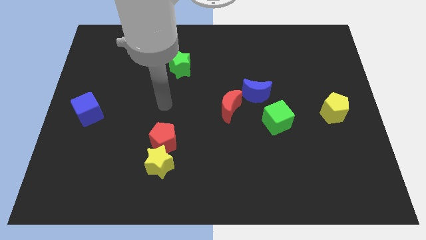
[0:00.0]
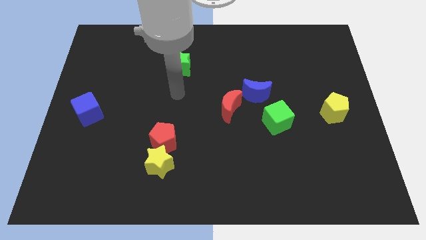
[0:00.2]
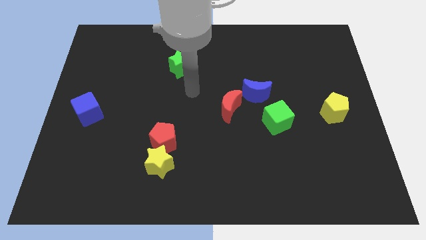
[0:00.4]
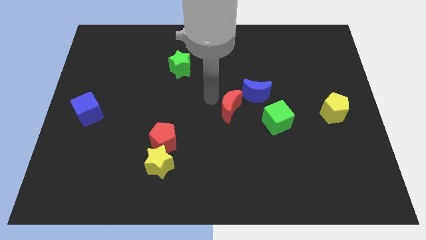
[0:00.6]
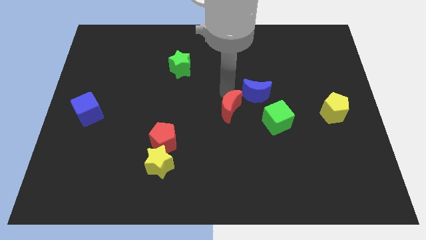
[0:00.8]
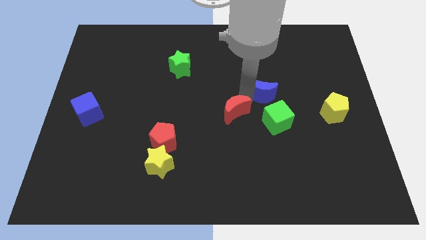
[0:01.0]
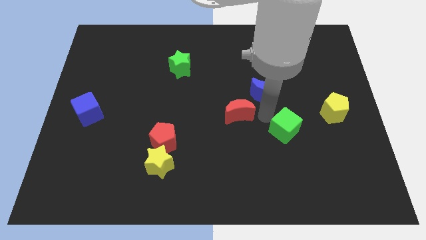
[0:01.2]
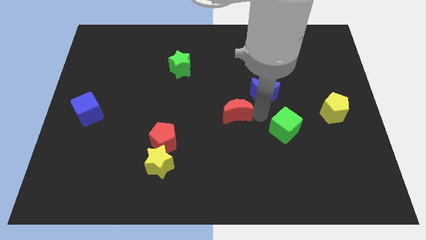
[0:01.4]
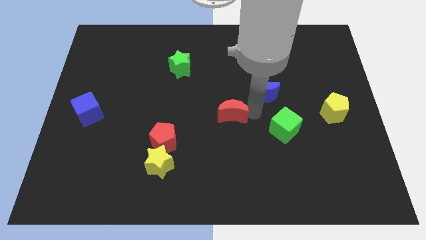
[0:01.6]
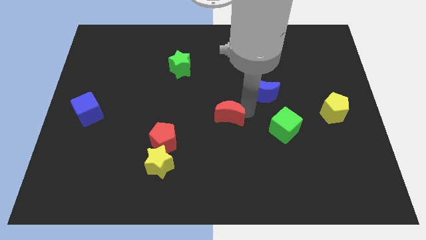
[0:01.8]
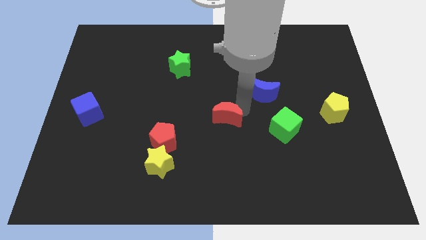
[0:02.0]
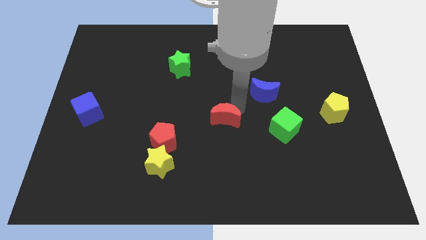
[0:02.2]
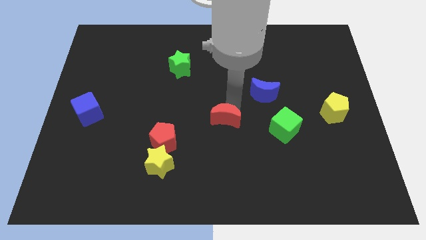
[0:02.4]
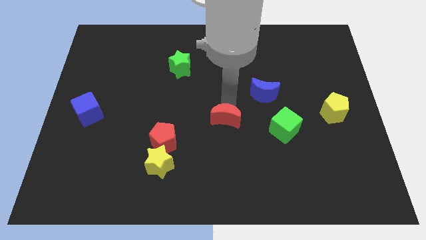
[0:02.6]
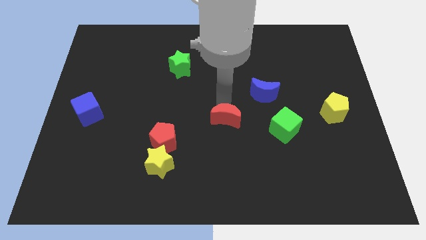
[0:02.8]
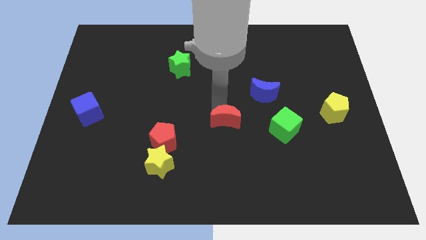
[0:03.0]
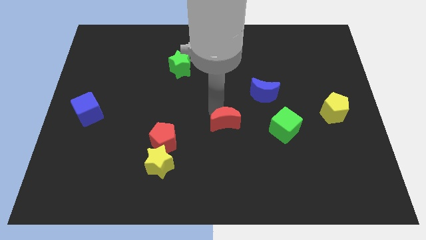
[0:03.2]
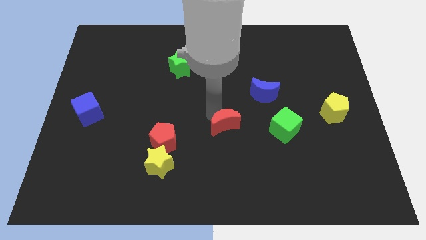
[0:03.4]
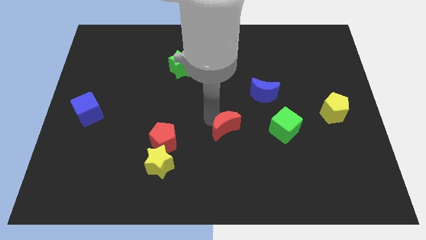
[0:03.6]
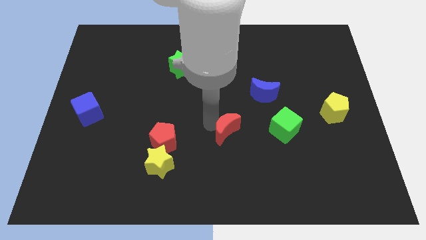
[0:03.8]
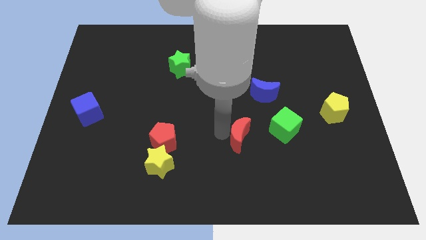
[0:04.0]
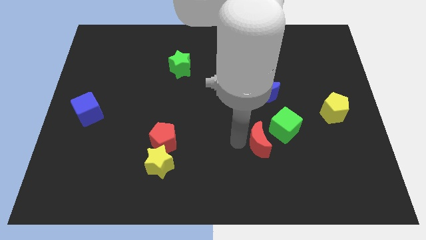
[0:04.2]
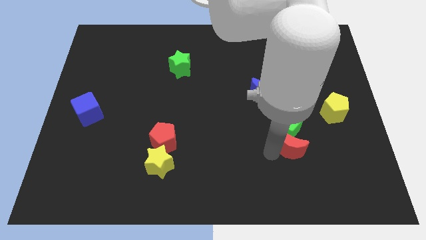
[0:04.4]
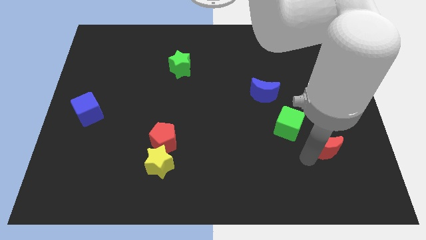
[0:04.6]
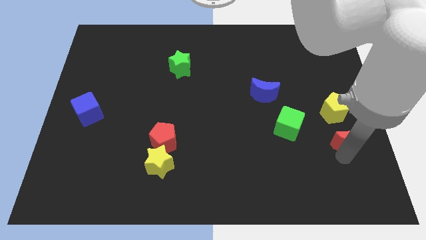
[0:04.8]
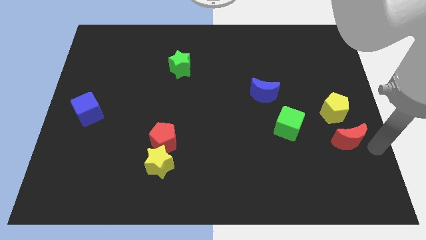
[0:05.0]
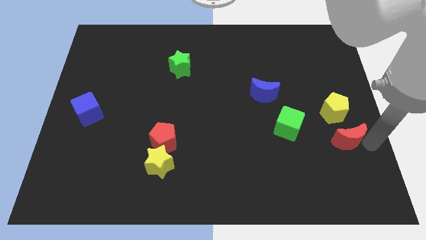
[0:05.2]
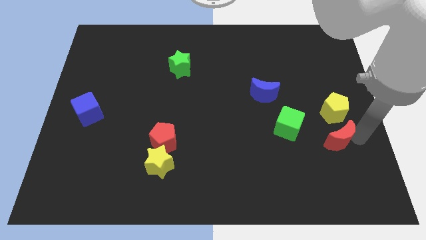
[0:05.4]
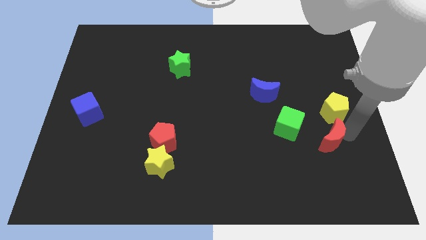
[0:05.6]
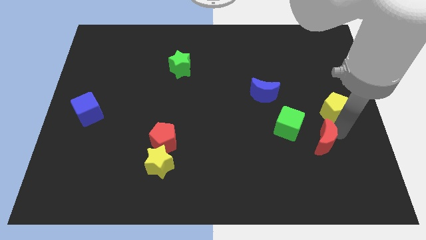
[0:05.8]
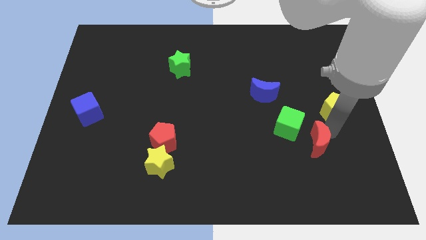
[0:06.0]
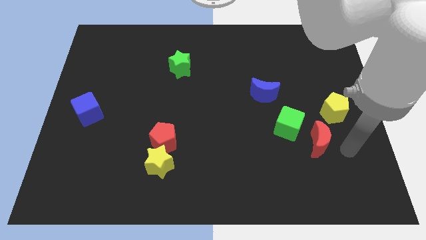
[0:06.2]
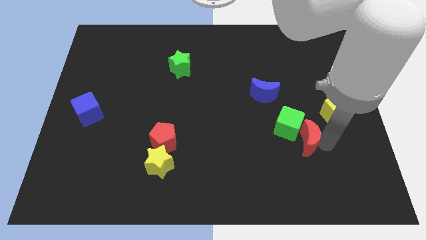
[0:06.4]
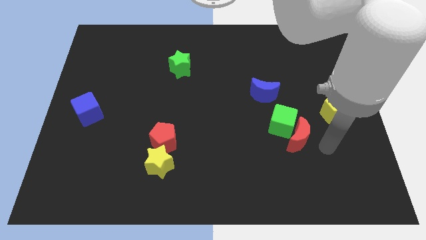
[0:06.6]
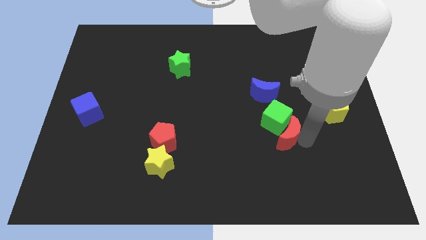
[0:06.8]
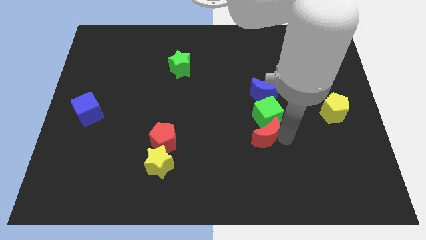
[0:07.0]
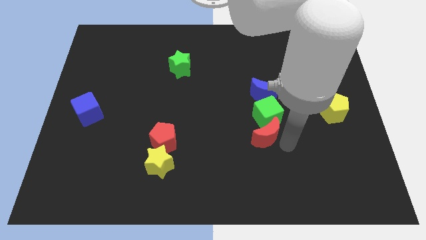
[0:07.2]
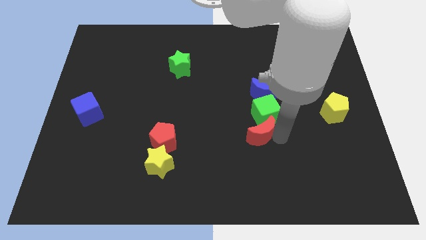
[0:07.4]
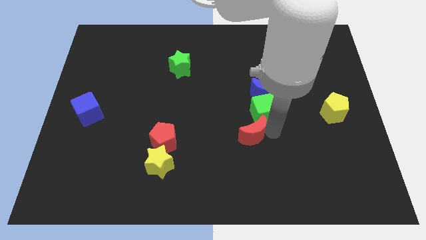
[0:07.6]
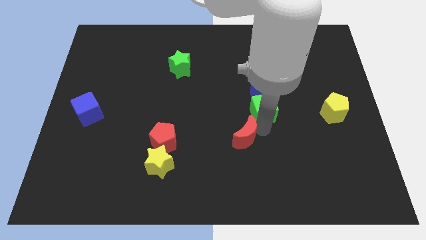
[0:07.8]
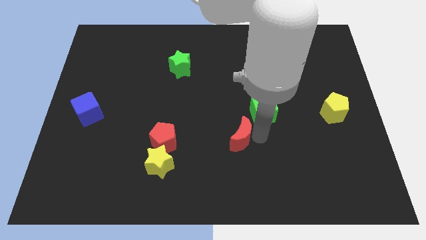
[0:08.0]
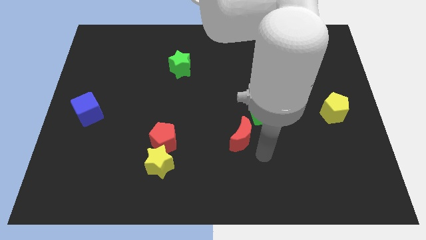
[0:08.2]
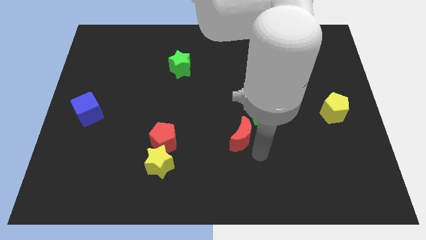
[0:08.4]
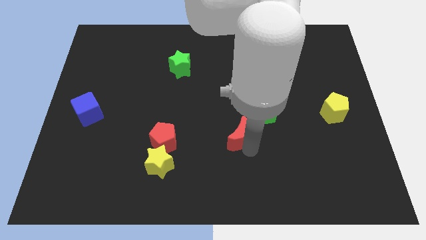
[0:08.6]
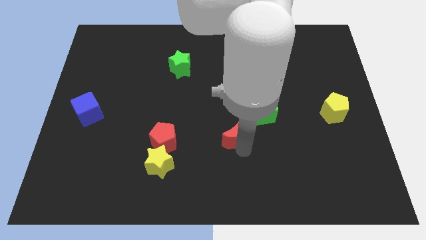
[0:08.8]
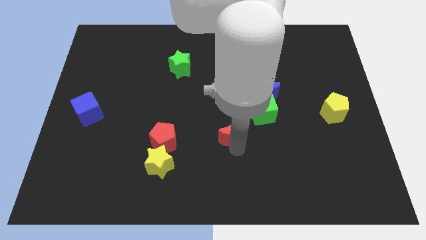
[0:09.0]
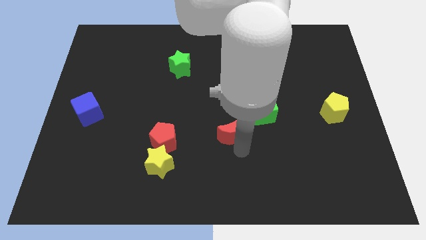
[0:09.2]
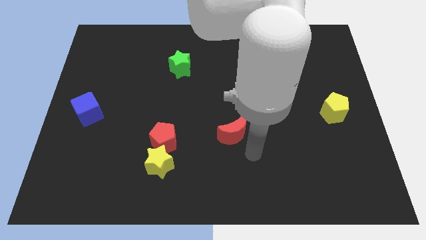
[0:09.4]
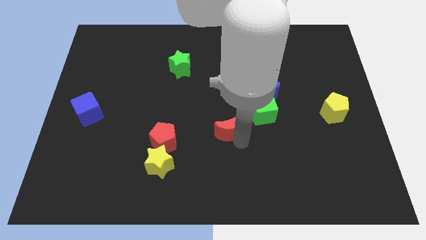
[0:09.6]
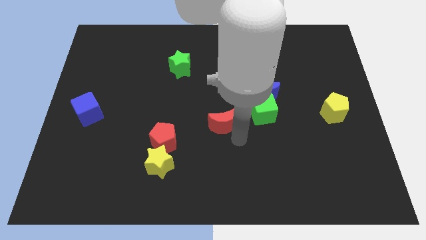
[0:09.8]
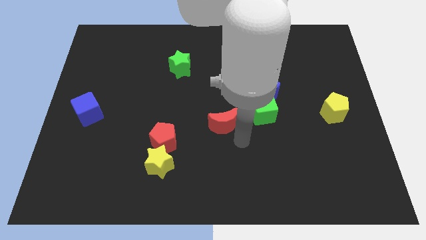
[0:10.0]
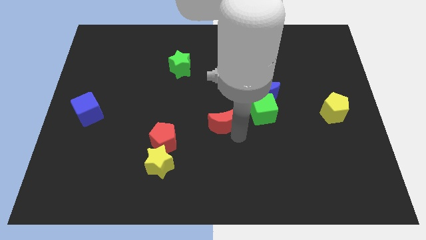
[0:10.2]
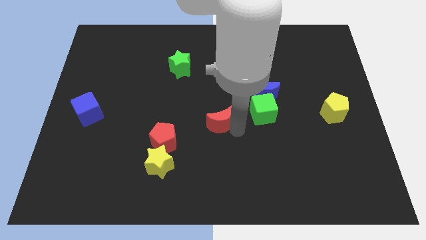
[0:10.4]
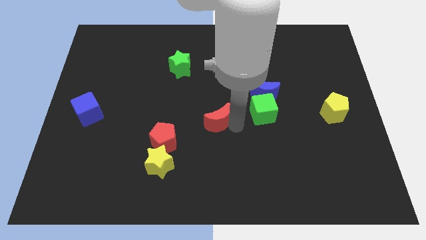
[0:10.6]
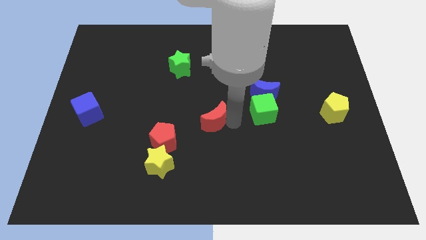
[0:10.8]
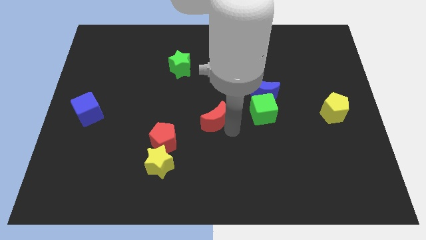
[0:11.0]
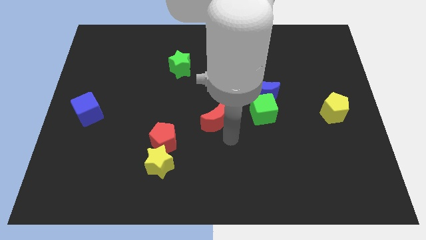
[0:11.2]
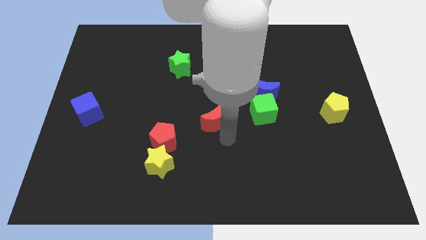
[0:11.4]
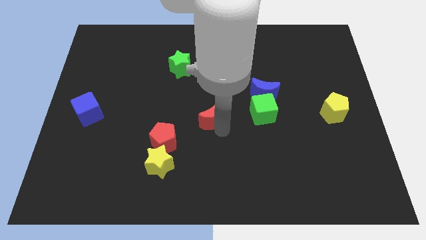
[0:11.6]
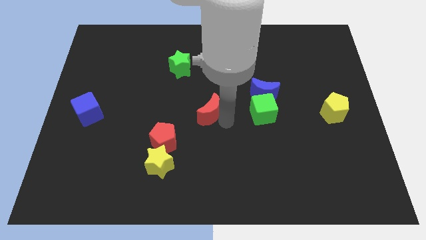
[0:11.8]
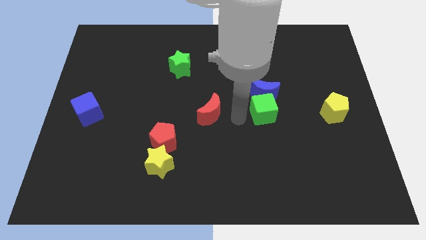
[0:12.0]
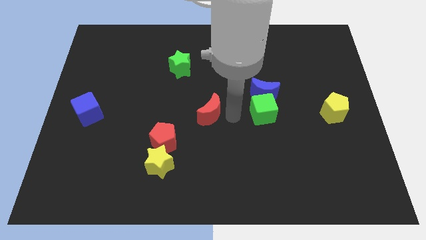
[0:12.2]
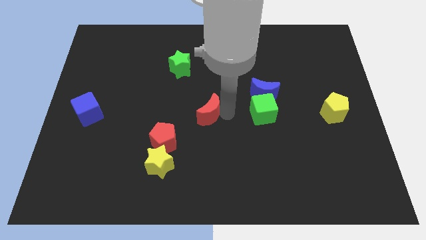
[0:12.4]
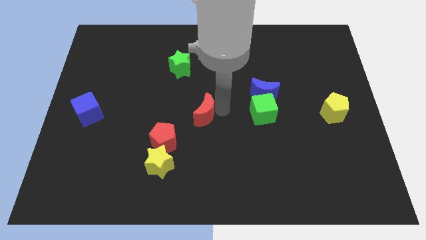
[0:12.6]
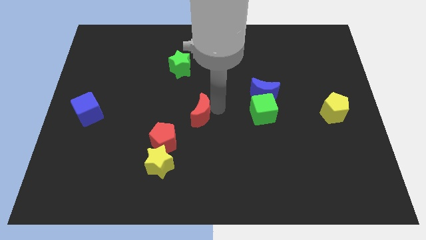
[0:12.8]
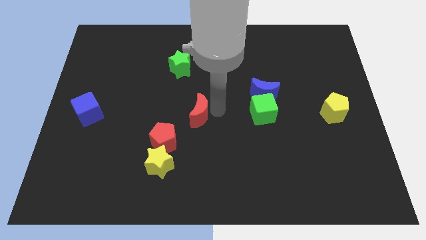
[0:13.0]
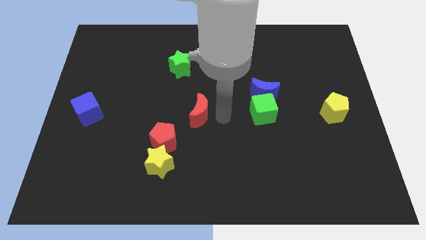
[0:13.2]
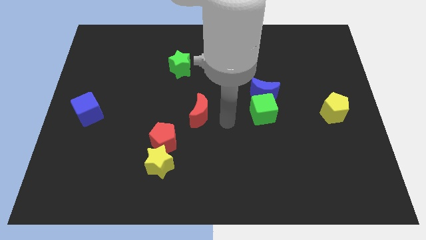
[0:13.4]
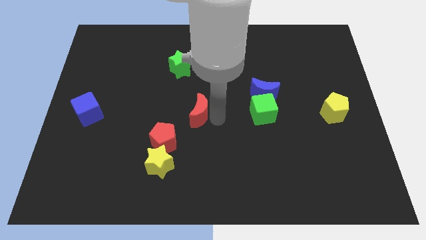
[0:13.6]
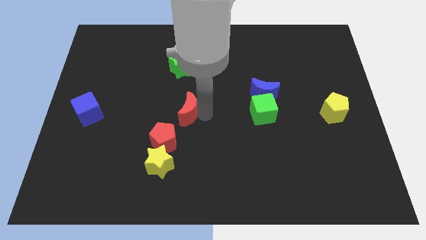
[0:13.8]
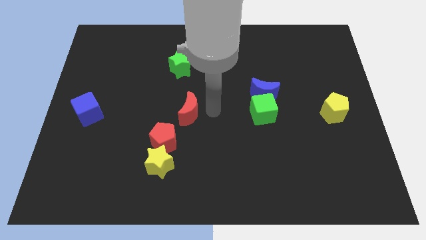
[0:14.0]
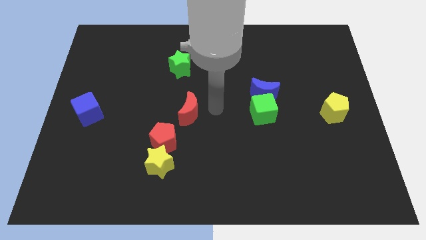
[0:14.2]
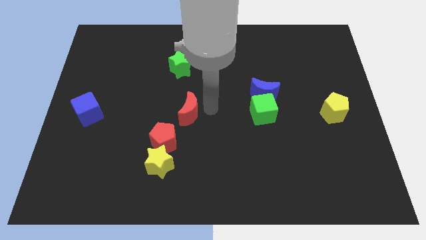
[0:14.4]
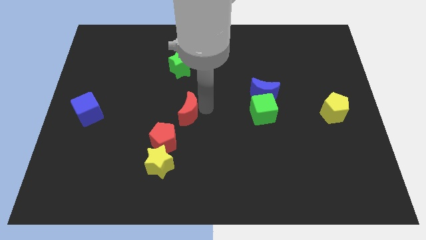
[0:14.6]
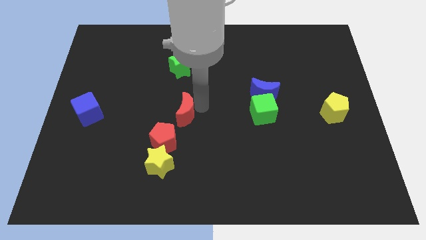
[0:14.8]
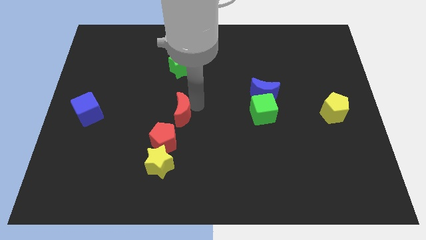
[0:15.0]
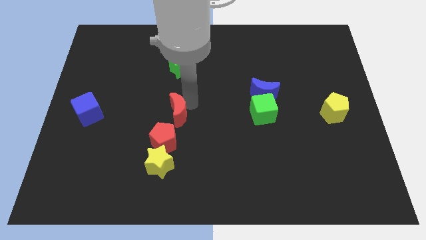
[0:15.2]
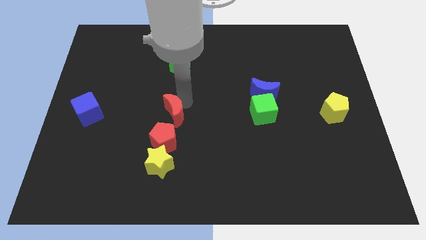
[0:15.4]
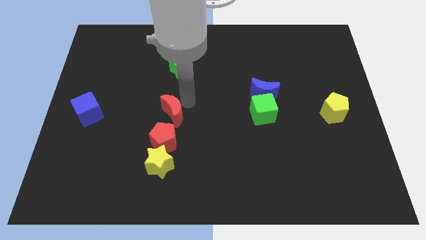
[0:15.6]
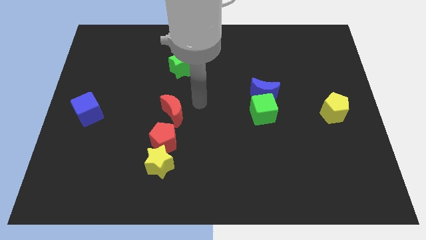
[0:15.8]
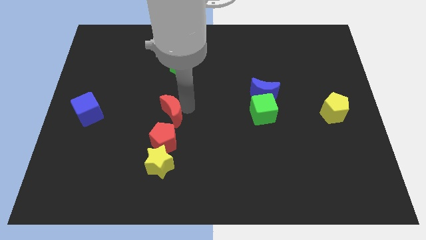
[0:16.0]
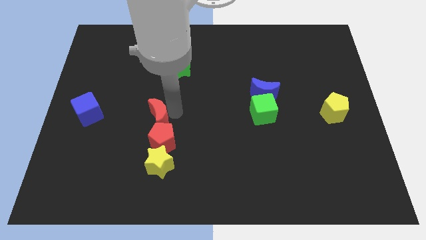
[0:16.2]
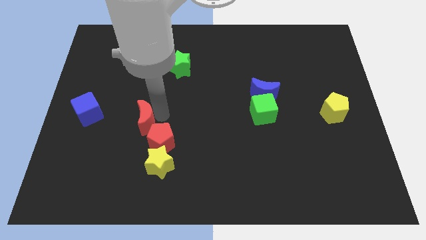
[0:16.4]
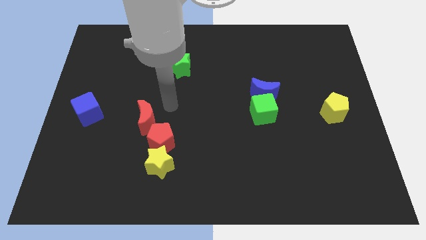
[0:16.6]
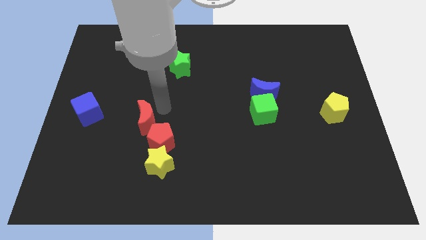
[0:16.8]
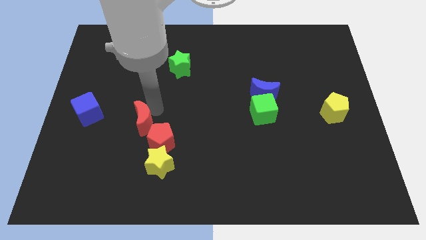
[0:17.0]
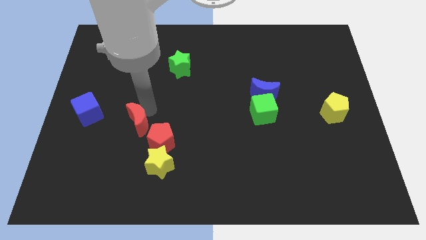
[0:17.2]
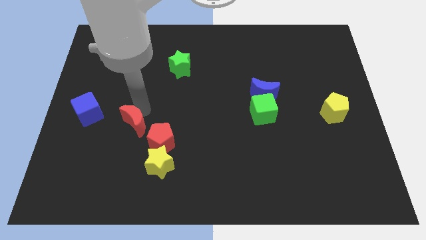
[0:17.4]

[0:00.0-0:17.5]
move the red moon left of the red pentagon
